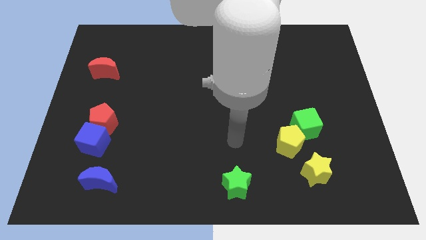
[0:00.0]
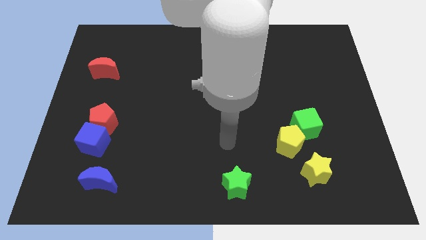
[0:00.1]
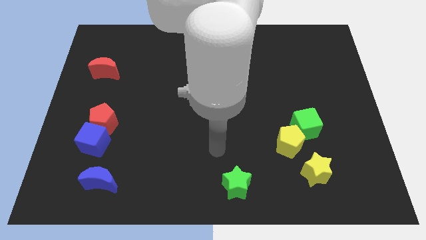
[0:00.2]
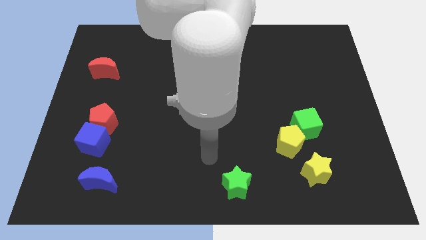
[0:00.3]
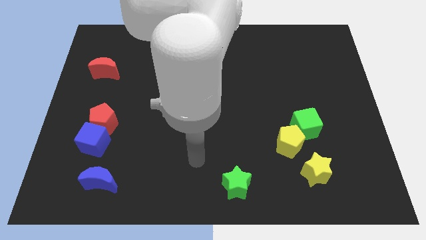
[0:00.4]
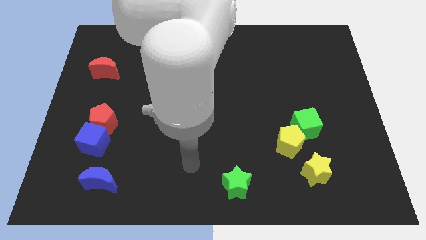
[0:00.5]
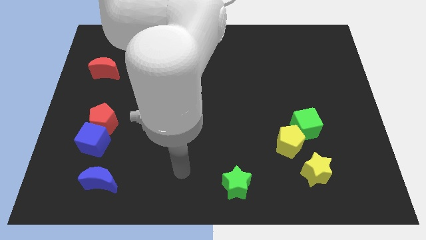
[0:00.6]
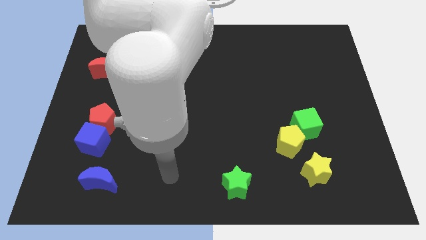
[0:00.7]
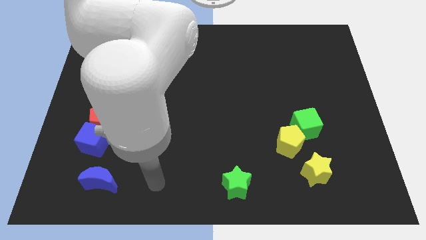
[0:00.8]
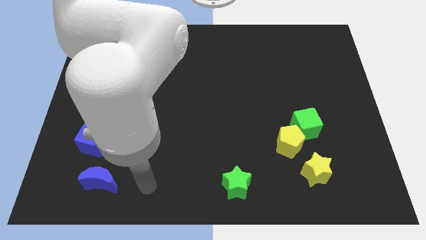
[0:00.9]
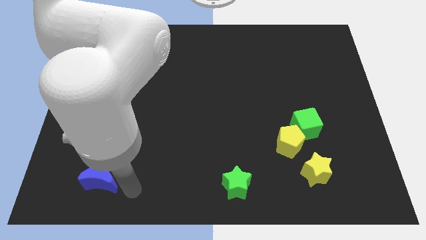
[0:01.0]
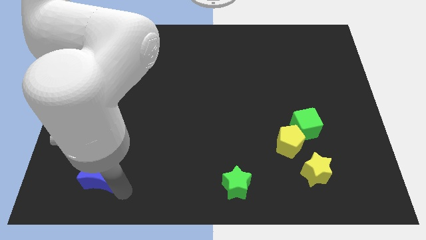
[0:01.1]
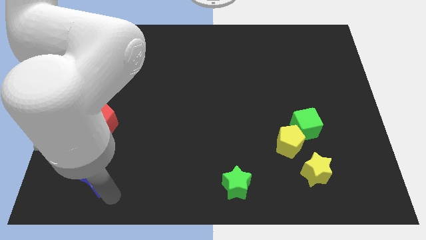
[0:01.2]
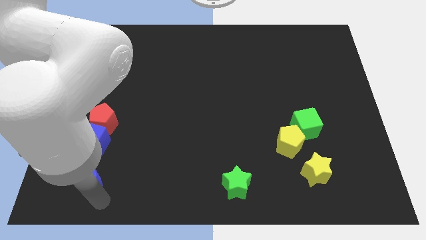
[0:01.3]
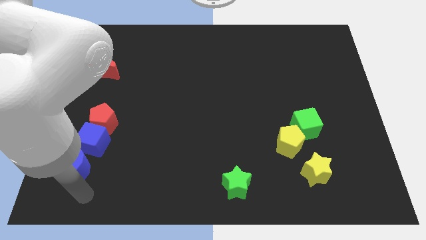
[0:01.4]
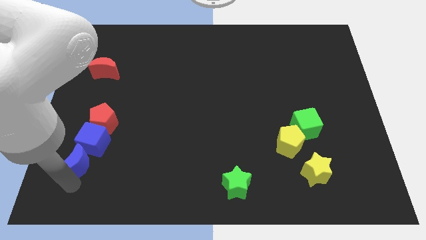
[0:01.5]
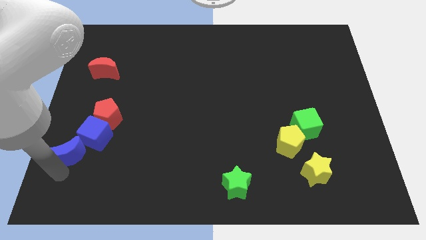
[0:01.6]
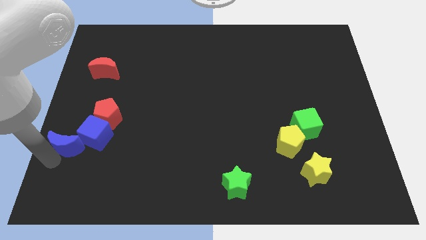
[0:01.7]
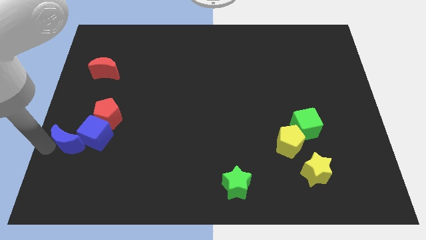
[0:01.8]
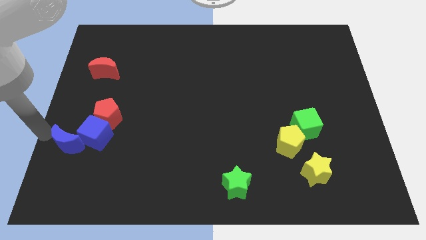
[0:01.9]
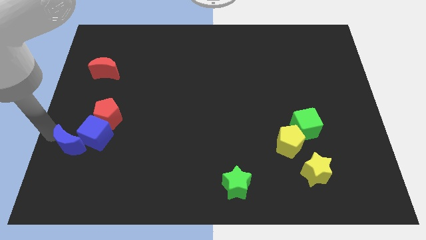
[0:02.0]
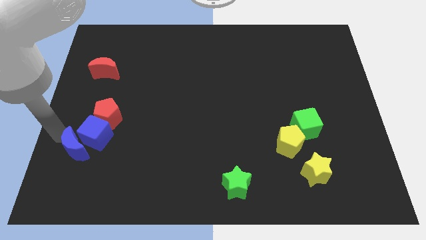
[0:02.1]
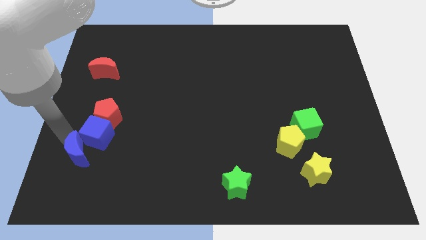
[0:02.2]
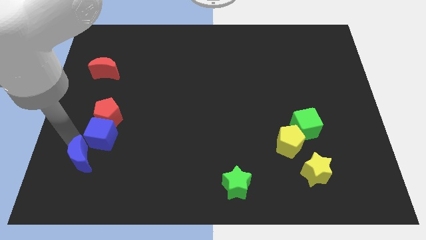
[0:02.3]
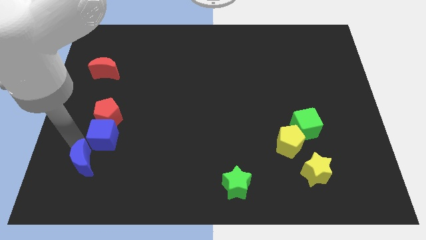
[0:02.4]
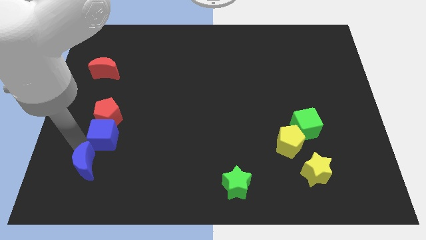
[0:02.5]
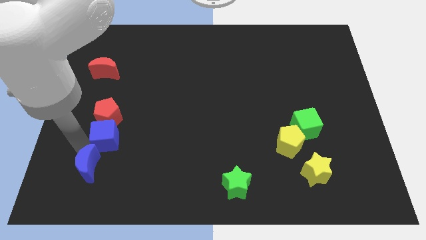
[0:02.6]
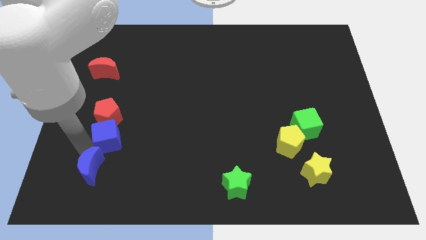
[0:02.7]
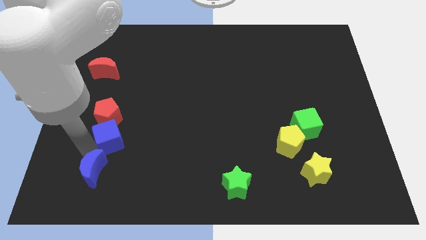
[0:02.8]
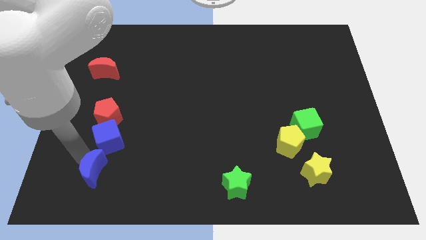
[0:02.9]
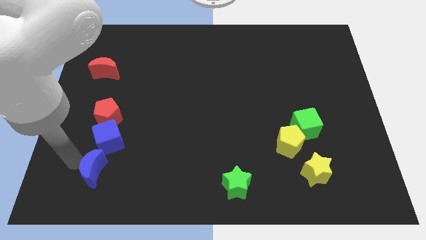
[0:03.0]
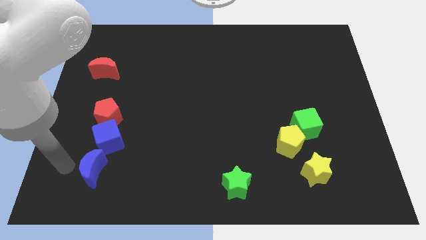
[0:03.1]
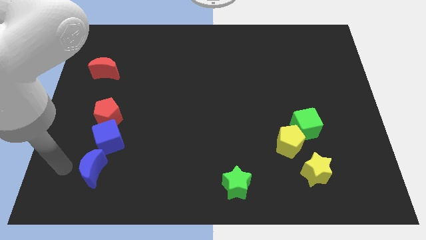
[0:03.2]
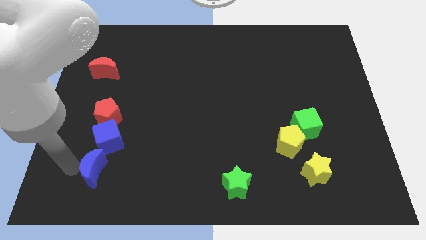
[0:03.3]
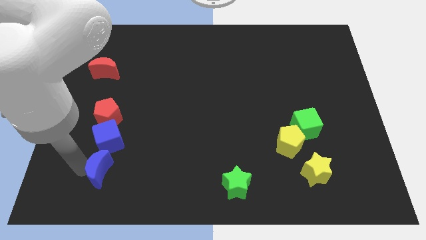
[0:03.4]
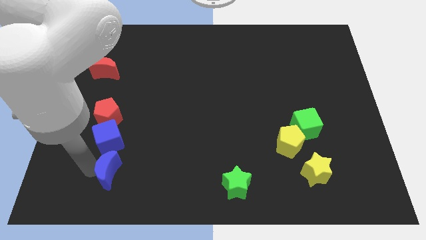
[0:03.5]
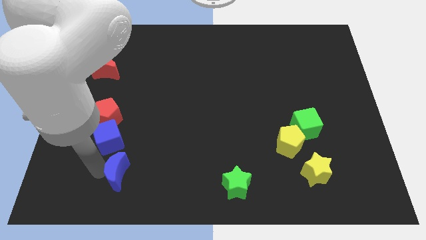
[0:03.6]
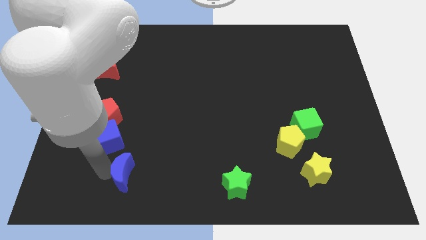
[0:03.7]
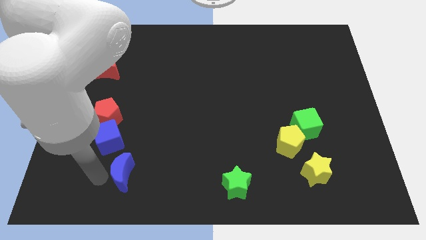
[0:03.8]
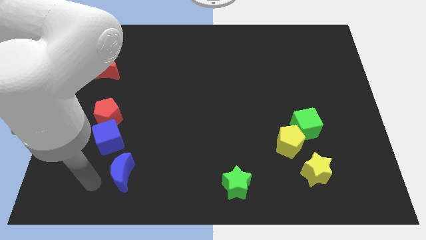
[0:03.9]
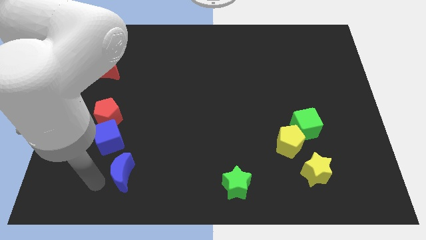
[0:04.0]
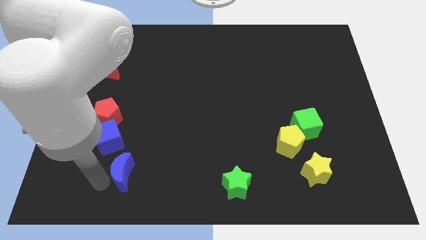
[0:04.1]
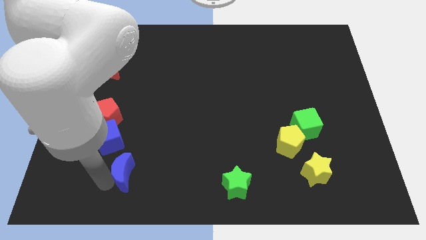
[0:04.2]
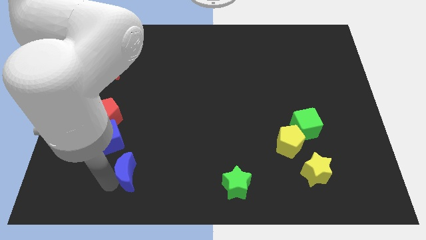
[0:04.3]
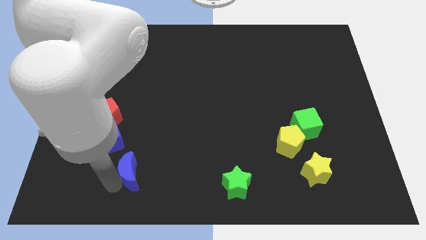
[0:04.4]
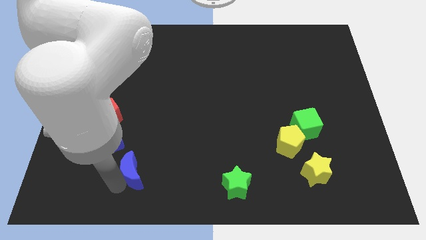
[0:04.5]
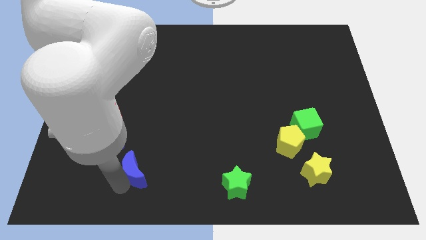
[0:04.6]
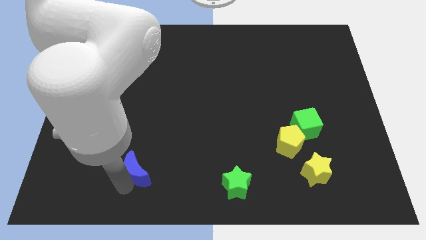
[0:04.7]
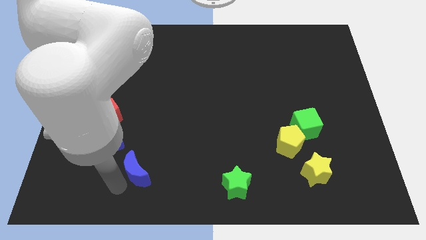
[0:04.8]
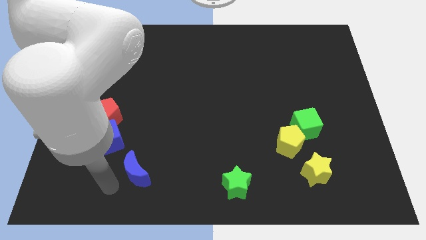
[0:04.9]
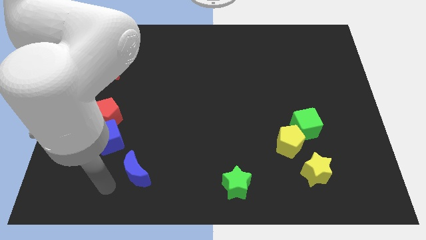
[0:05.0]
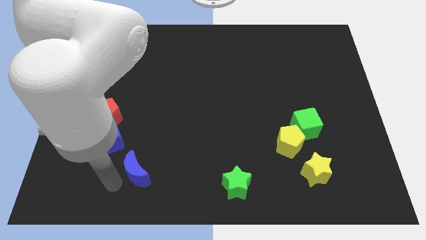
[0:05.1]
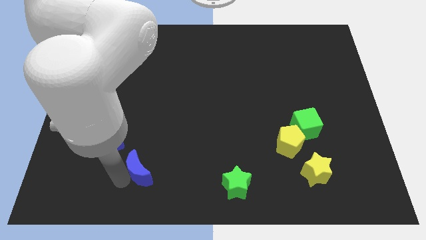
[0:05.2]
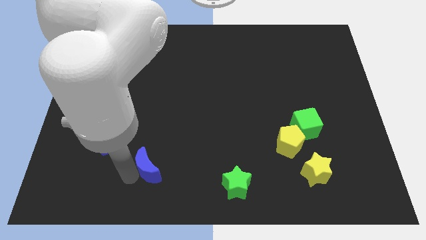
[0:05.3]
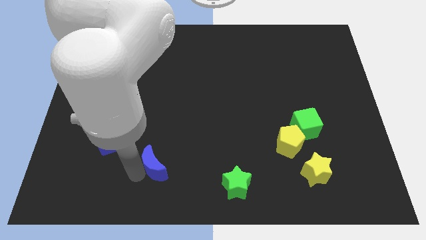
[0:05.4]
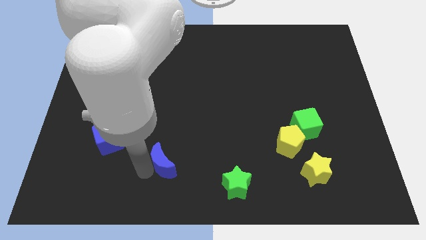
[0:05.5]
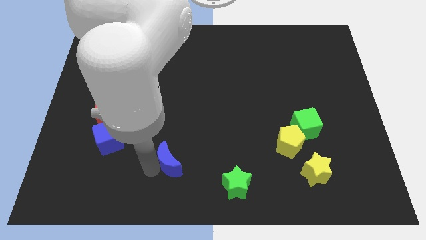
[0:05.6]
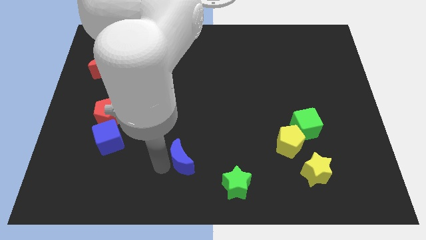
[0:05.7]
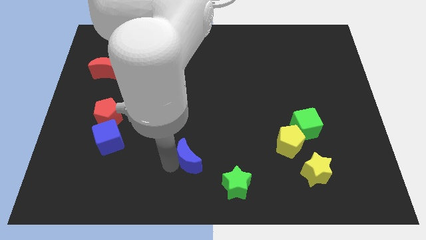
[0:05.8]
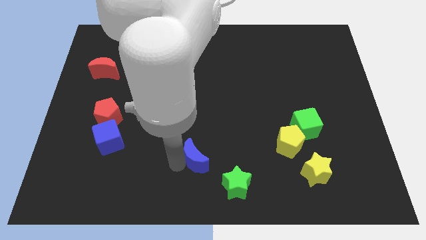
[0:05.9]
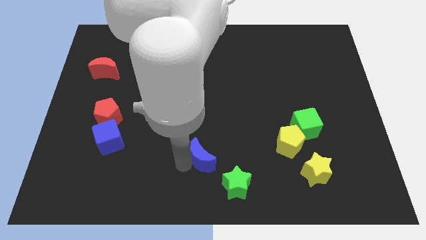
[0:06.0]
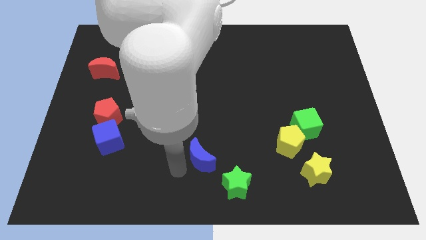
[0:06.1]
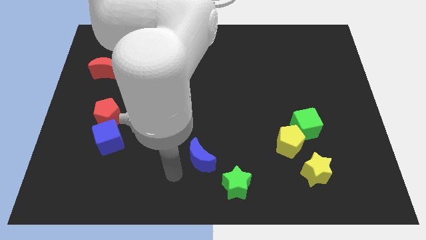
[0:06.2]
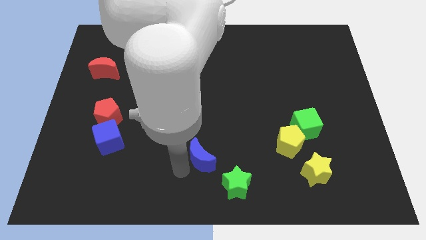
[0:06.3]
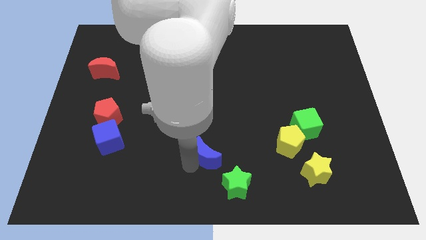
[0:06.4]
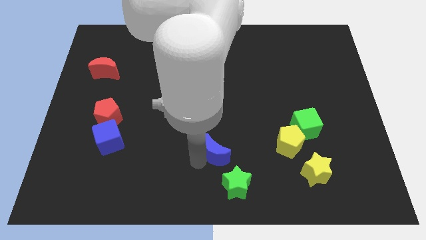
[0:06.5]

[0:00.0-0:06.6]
slide the blue moon to the top of the green star
